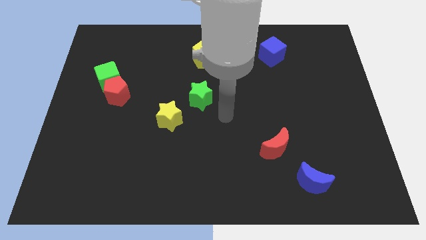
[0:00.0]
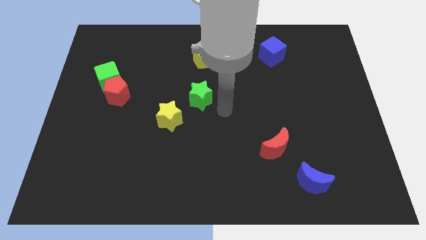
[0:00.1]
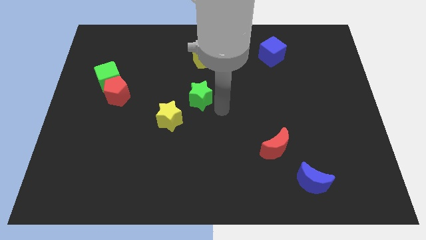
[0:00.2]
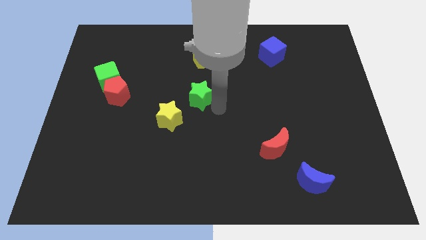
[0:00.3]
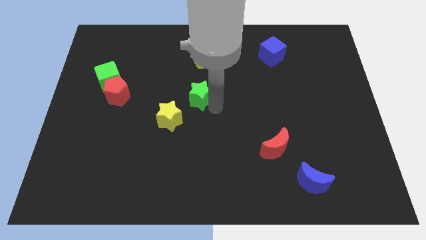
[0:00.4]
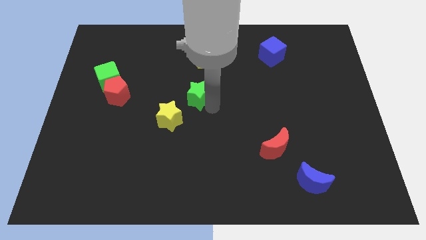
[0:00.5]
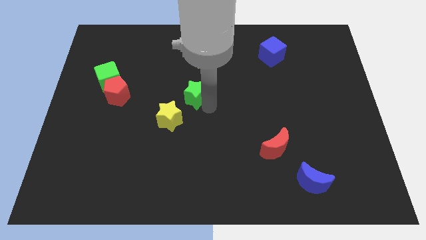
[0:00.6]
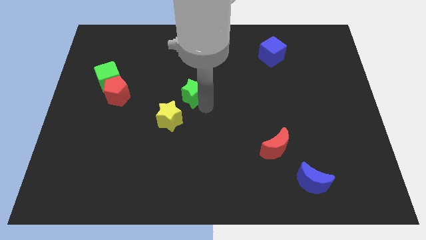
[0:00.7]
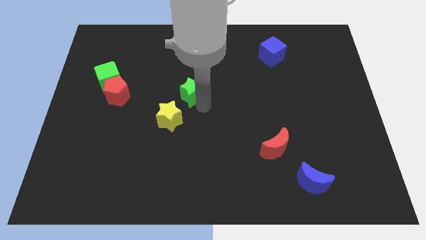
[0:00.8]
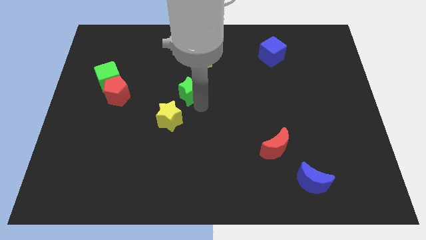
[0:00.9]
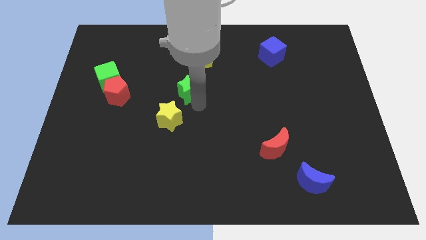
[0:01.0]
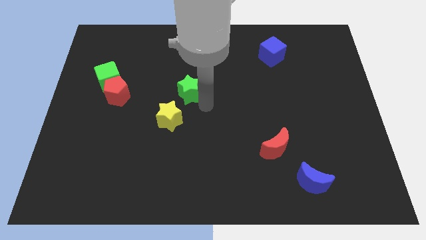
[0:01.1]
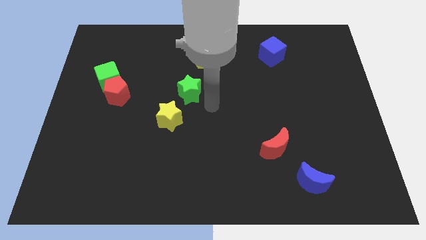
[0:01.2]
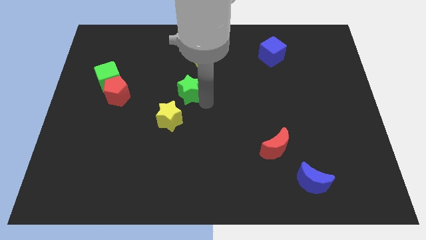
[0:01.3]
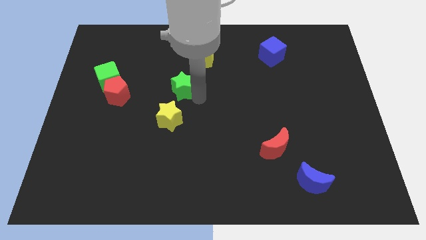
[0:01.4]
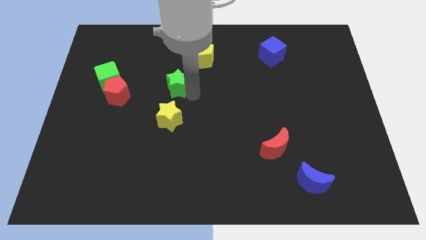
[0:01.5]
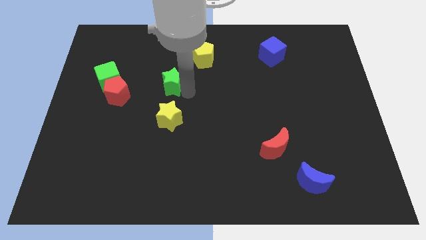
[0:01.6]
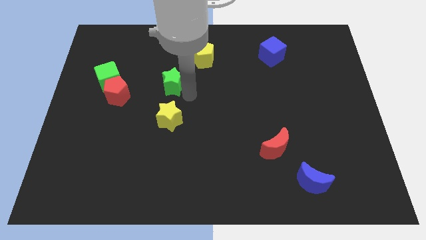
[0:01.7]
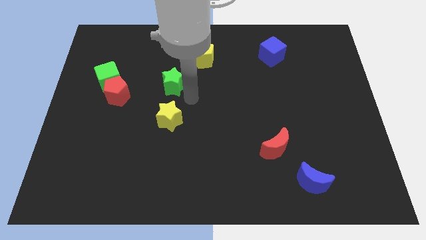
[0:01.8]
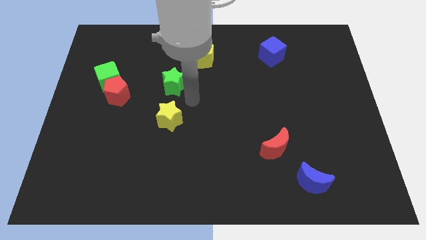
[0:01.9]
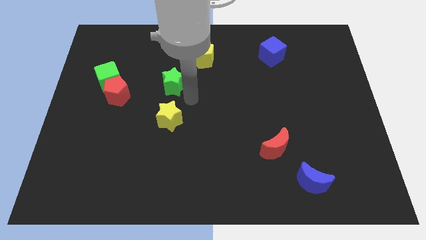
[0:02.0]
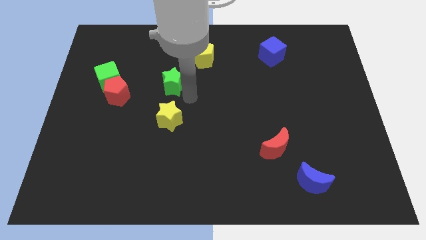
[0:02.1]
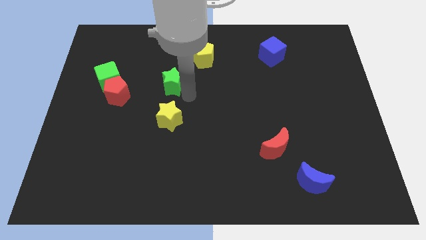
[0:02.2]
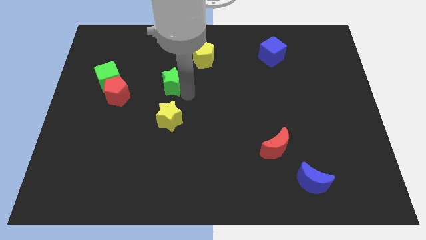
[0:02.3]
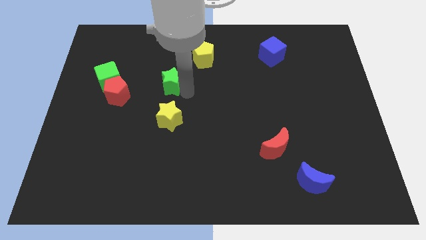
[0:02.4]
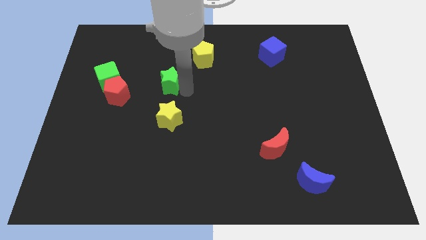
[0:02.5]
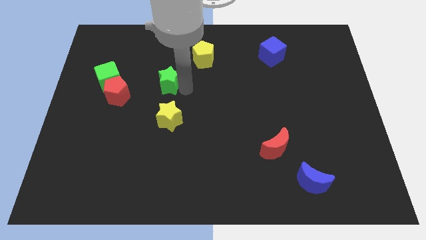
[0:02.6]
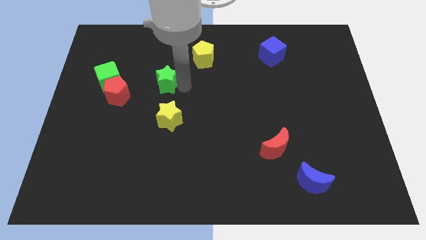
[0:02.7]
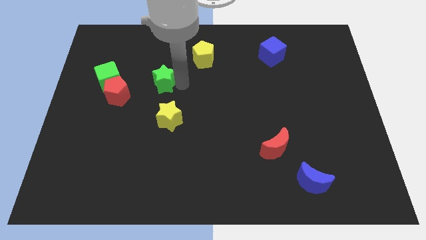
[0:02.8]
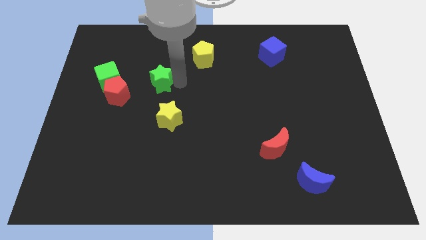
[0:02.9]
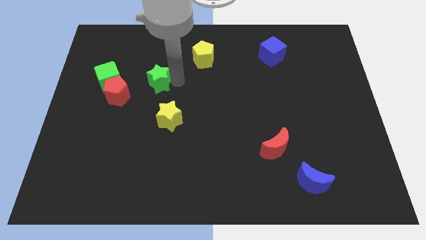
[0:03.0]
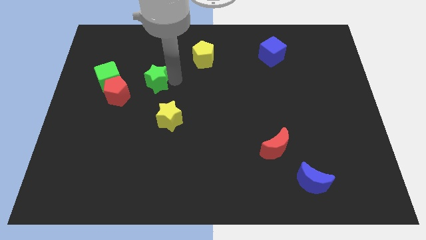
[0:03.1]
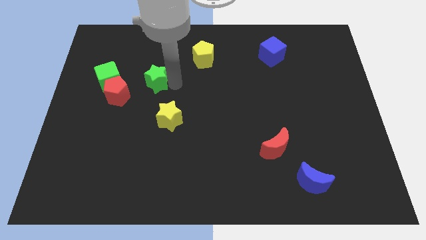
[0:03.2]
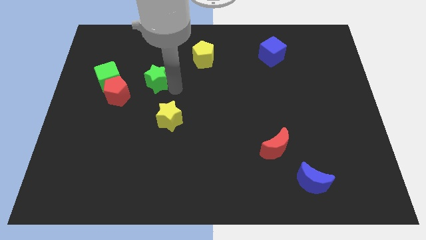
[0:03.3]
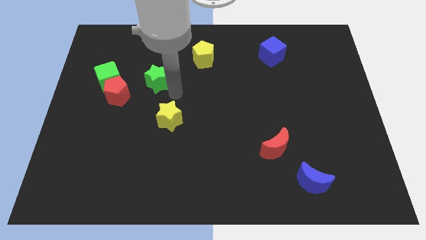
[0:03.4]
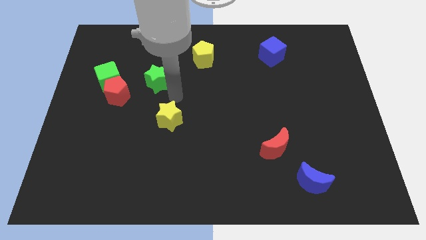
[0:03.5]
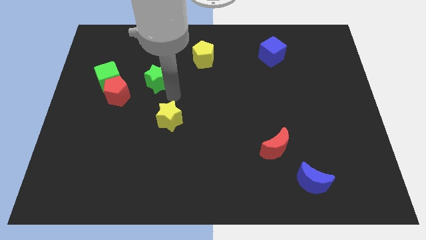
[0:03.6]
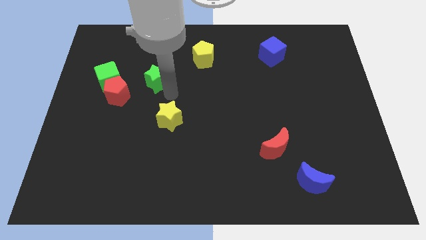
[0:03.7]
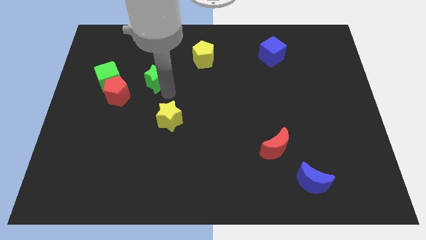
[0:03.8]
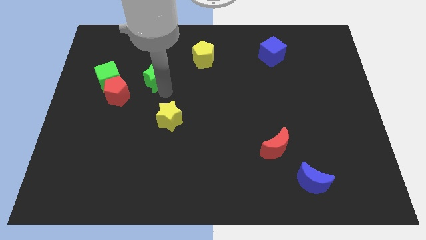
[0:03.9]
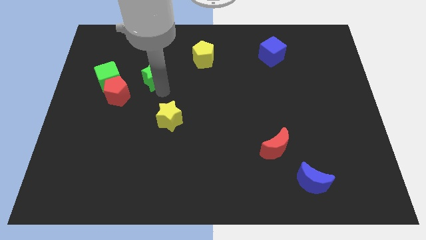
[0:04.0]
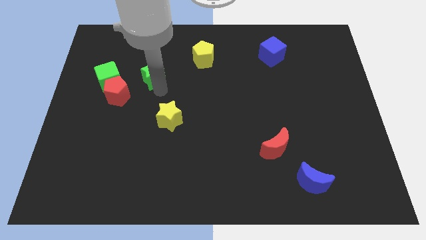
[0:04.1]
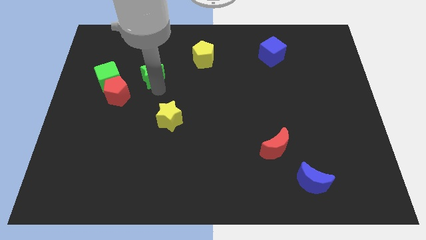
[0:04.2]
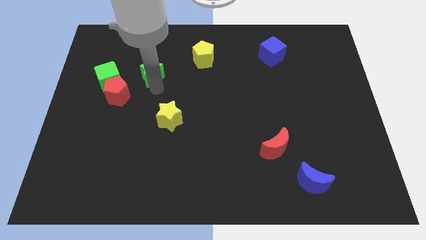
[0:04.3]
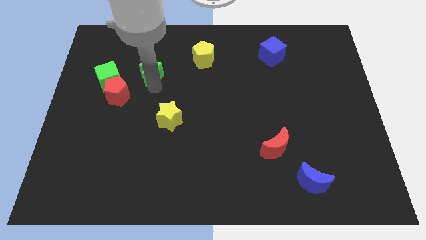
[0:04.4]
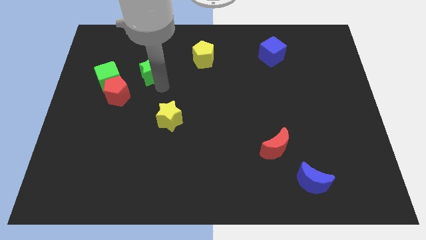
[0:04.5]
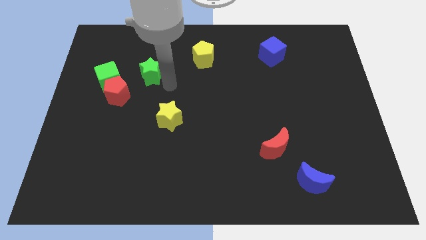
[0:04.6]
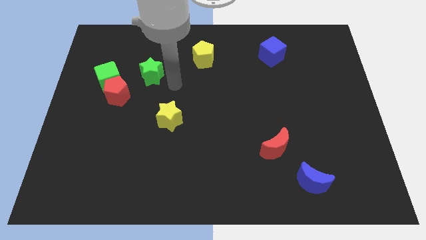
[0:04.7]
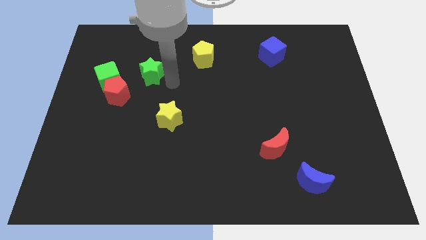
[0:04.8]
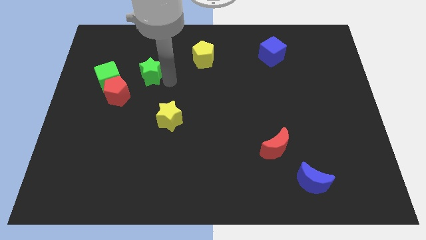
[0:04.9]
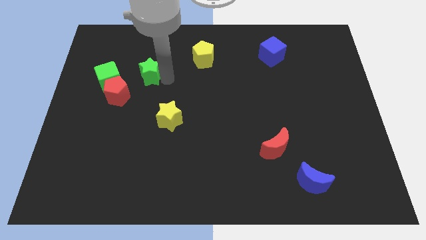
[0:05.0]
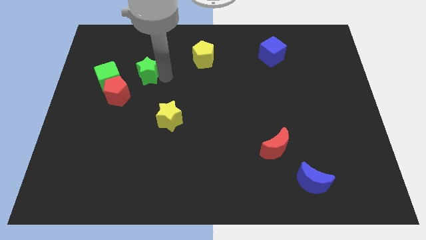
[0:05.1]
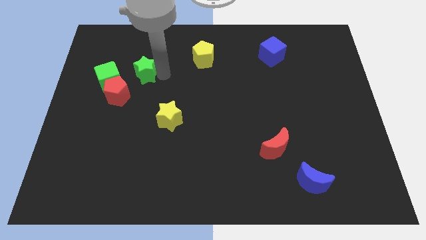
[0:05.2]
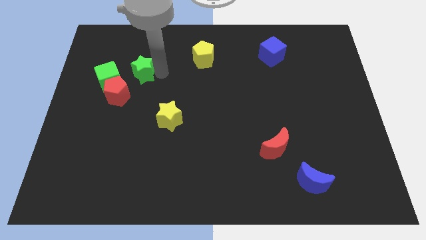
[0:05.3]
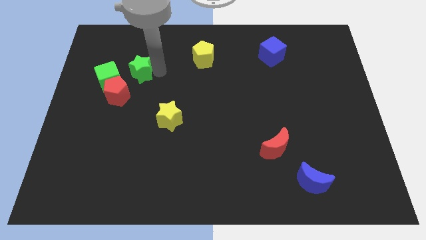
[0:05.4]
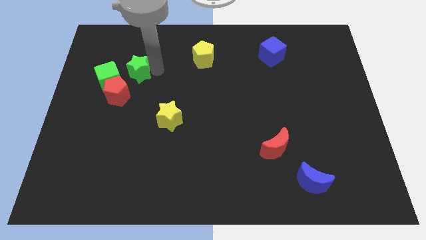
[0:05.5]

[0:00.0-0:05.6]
push the green star to the top side of the red pentagon

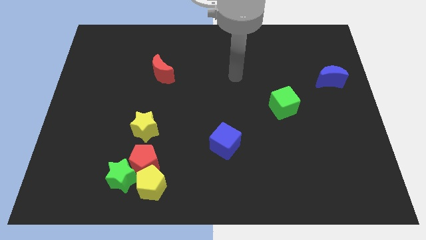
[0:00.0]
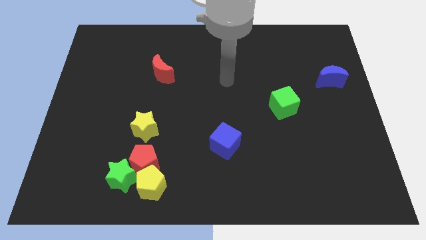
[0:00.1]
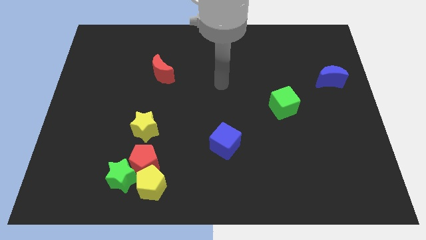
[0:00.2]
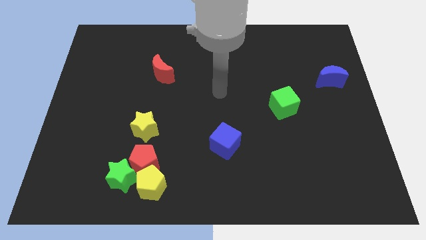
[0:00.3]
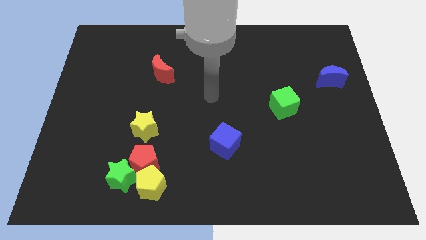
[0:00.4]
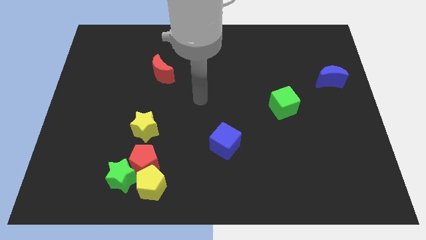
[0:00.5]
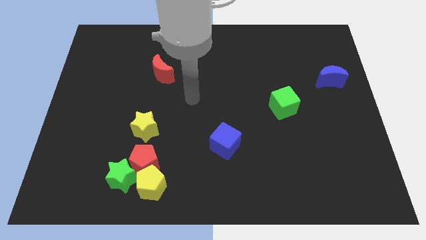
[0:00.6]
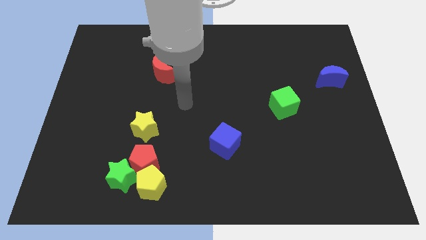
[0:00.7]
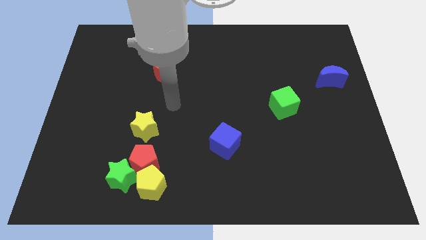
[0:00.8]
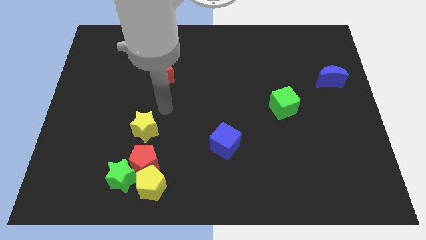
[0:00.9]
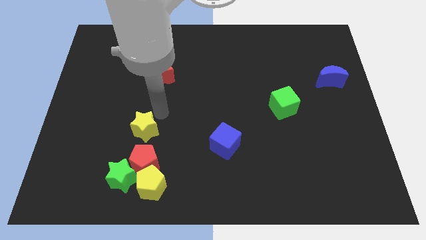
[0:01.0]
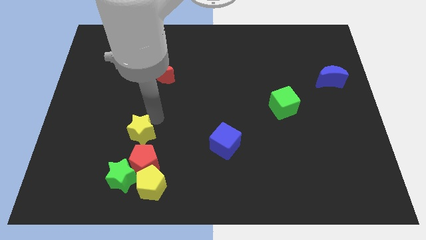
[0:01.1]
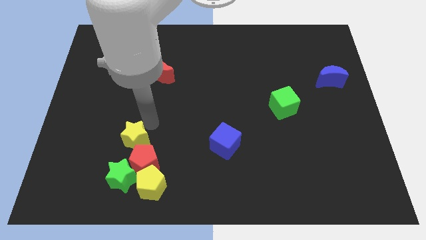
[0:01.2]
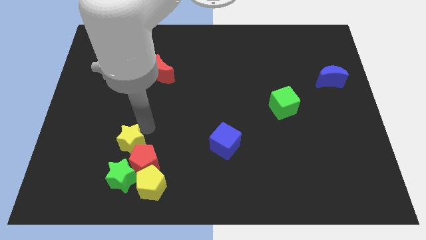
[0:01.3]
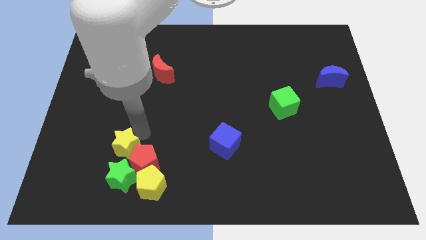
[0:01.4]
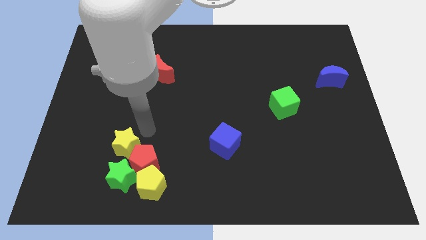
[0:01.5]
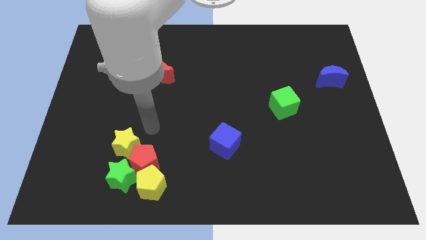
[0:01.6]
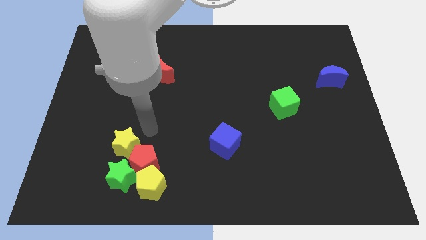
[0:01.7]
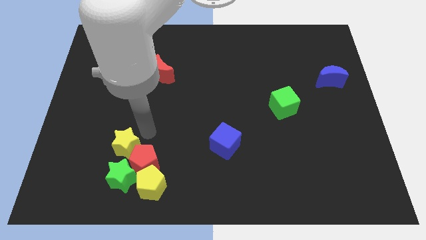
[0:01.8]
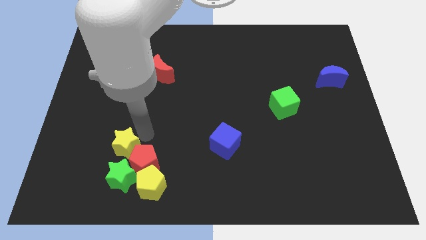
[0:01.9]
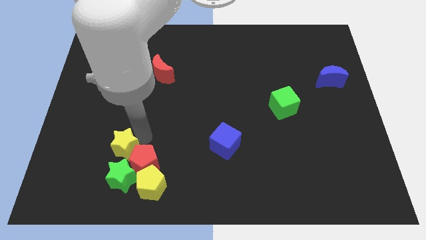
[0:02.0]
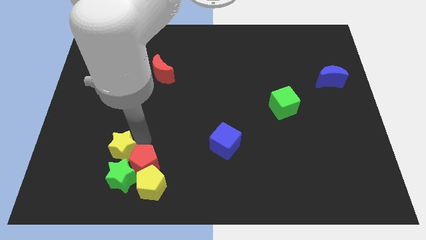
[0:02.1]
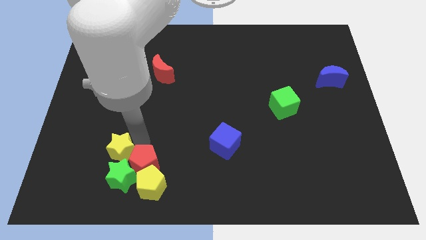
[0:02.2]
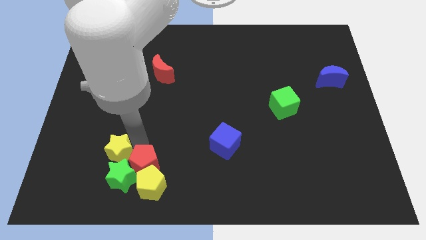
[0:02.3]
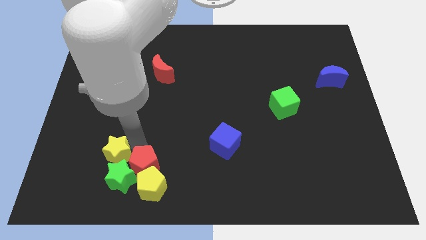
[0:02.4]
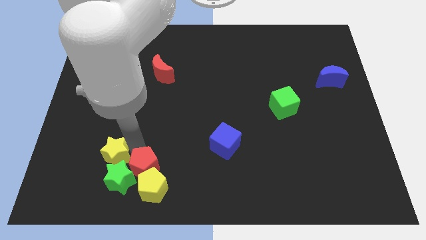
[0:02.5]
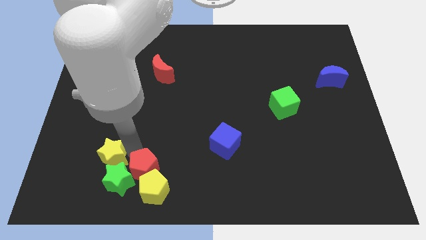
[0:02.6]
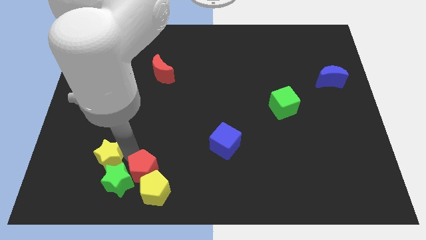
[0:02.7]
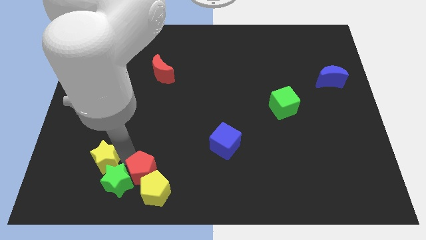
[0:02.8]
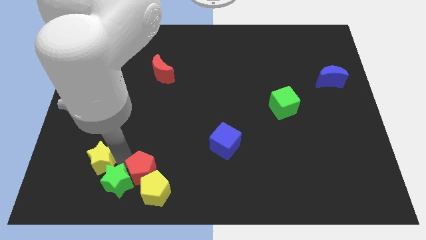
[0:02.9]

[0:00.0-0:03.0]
push the yellow star to the left of the green star
